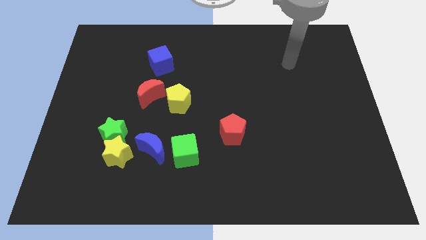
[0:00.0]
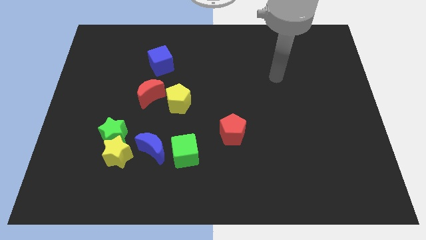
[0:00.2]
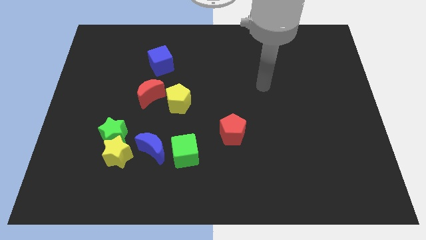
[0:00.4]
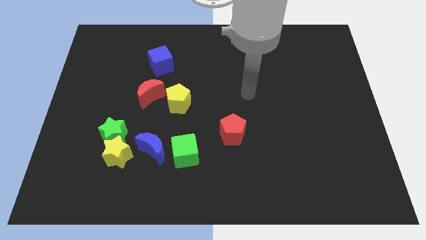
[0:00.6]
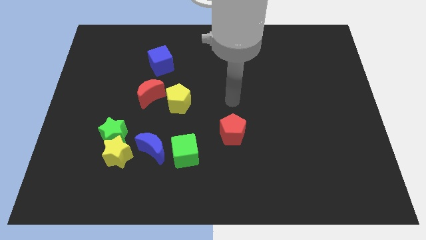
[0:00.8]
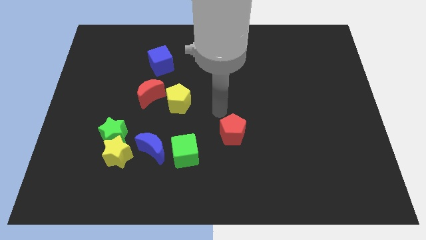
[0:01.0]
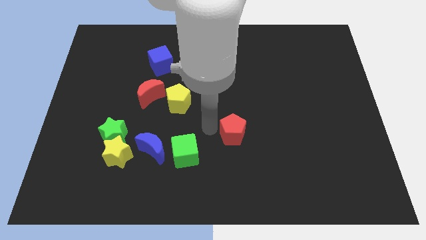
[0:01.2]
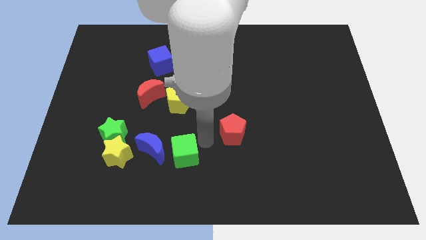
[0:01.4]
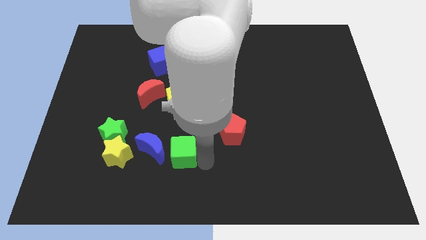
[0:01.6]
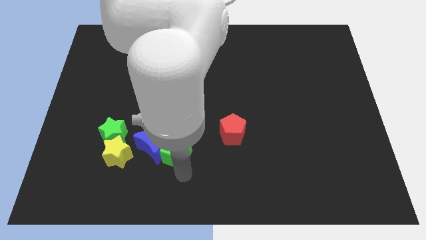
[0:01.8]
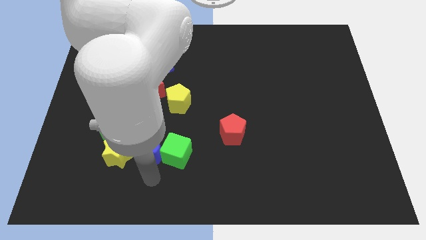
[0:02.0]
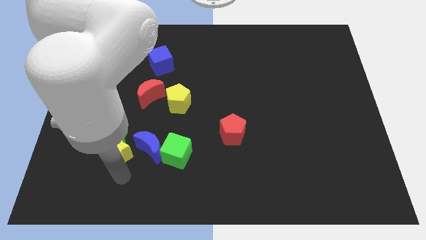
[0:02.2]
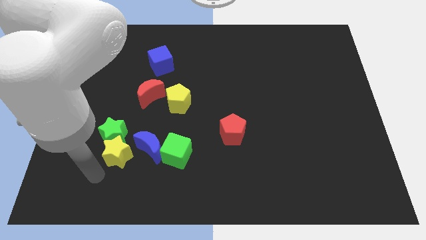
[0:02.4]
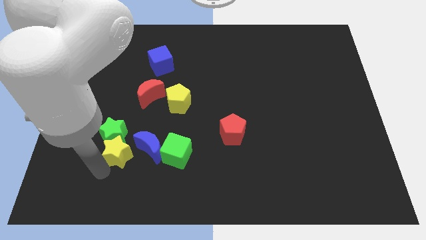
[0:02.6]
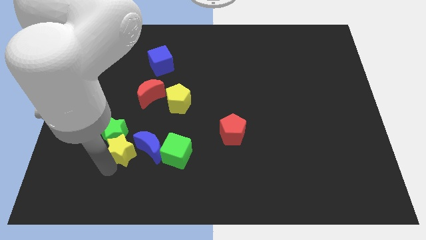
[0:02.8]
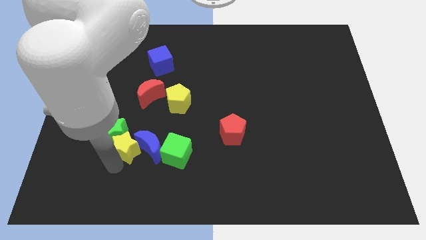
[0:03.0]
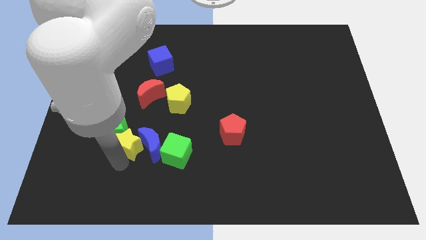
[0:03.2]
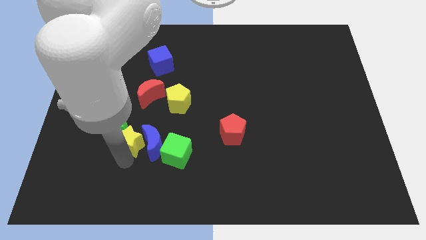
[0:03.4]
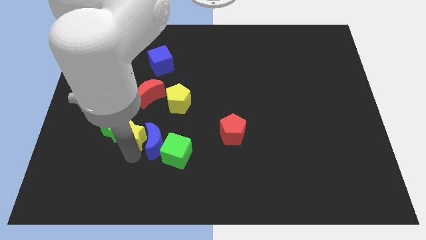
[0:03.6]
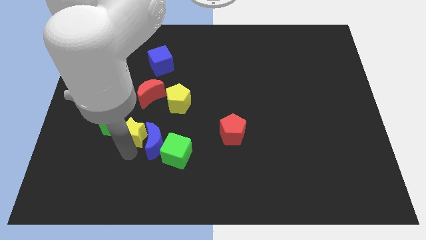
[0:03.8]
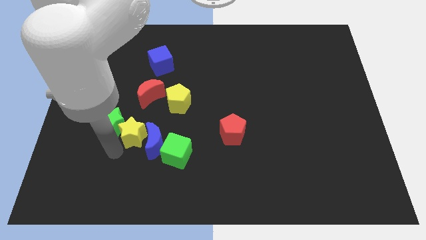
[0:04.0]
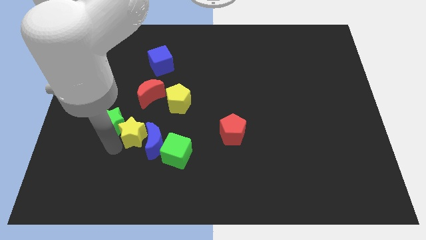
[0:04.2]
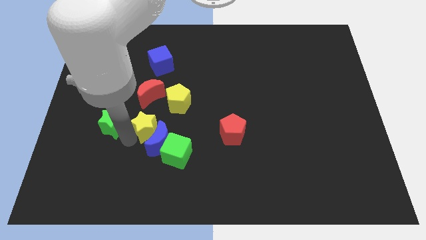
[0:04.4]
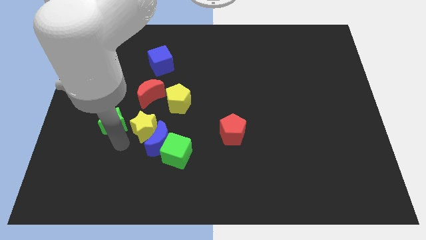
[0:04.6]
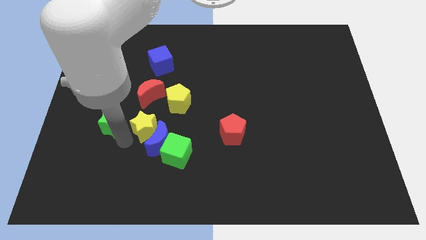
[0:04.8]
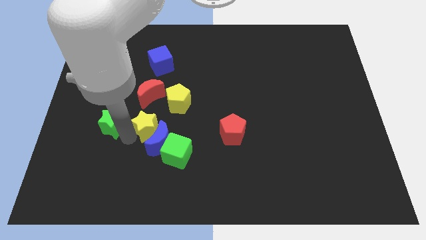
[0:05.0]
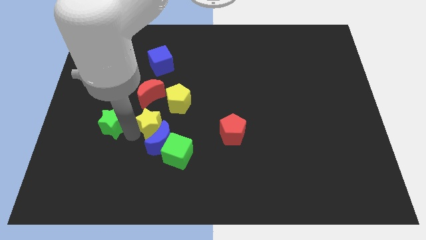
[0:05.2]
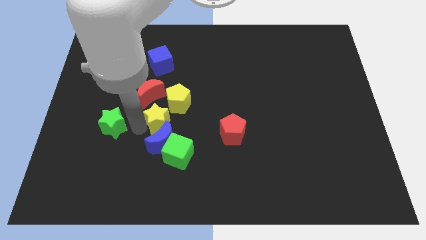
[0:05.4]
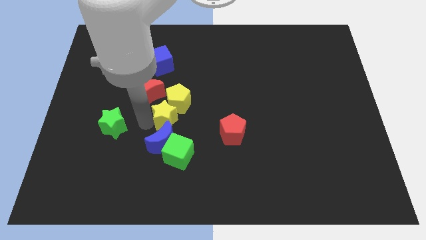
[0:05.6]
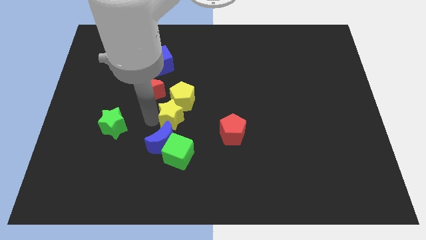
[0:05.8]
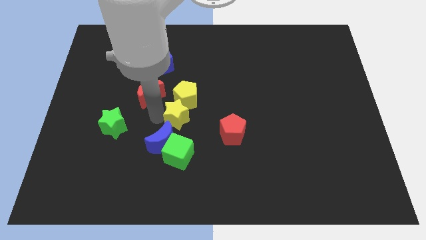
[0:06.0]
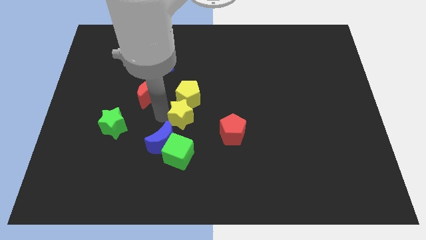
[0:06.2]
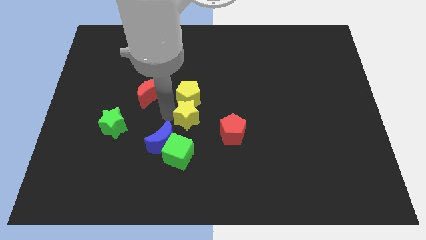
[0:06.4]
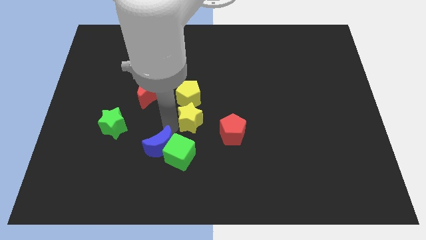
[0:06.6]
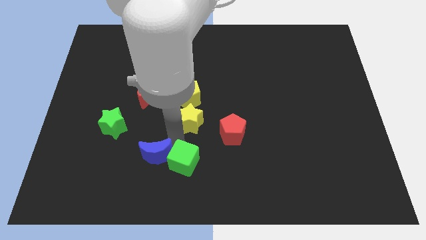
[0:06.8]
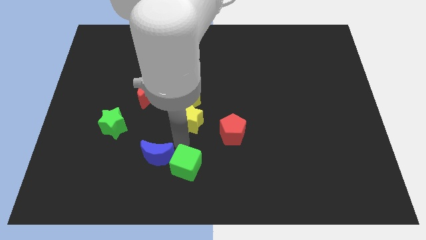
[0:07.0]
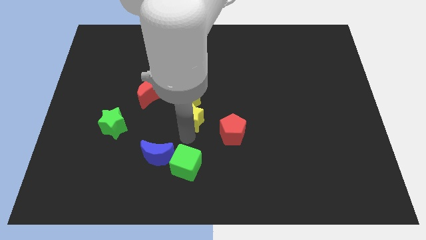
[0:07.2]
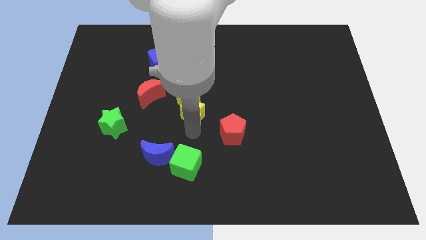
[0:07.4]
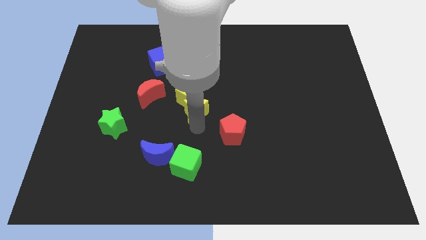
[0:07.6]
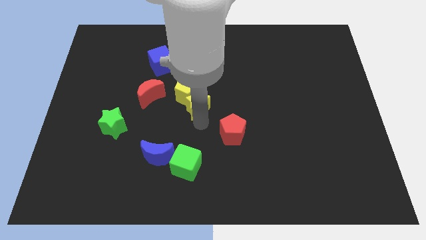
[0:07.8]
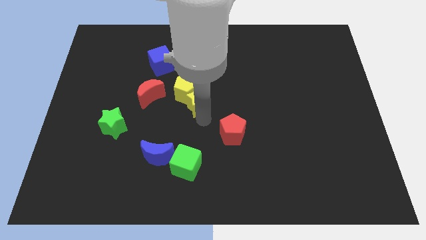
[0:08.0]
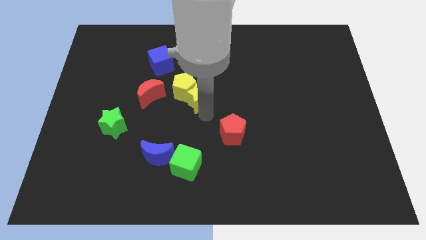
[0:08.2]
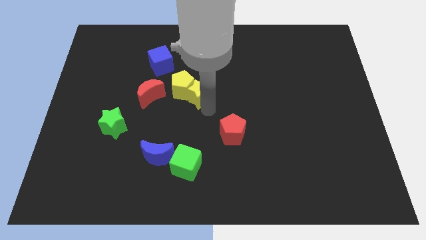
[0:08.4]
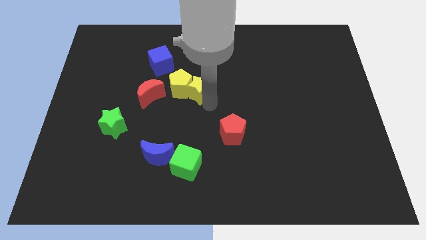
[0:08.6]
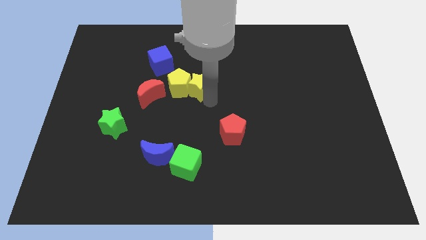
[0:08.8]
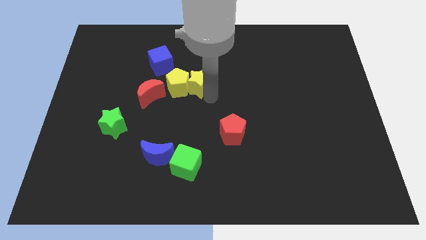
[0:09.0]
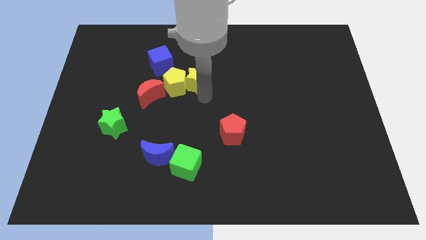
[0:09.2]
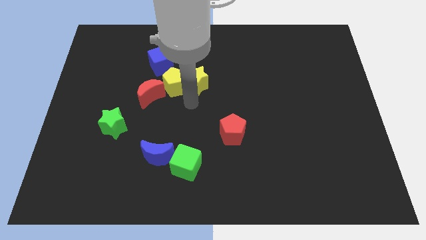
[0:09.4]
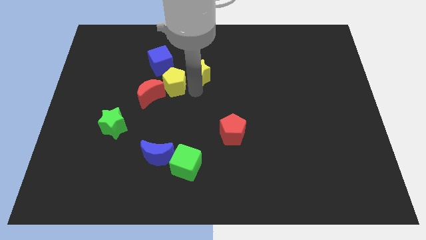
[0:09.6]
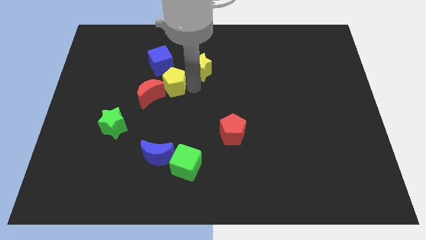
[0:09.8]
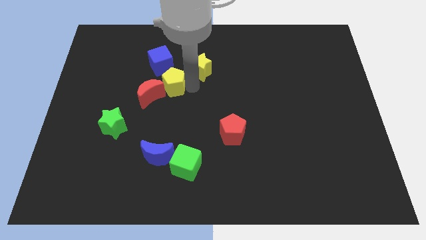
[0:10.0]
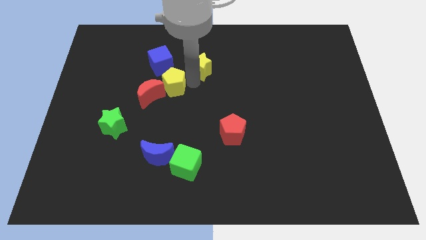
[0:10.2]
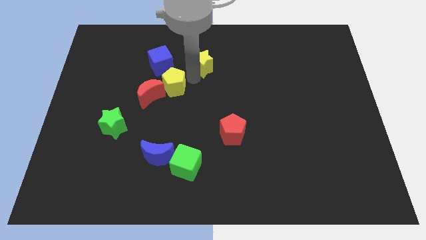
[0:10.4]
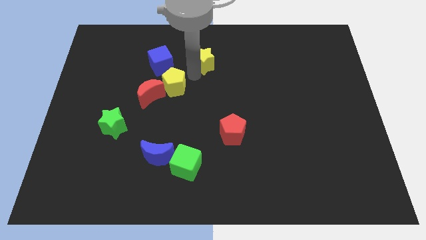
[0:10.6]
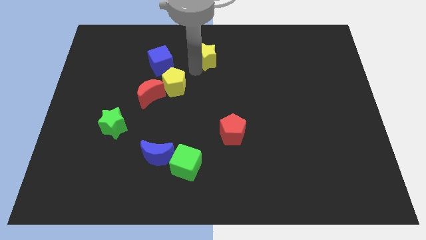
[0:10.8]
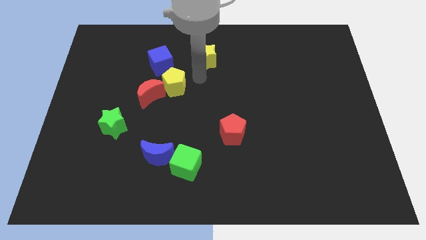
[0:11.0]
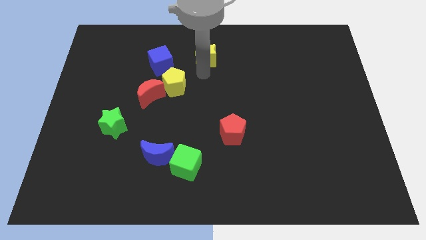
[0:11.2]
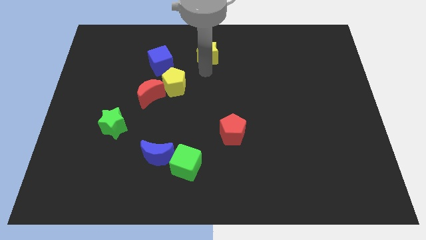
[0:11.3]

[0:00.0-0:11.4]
move the yellow star to the top

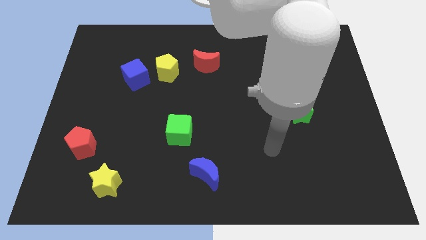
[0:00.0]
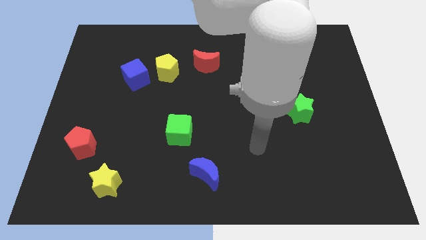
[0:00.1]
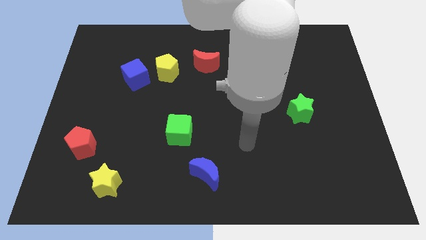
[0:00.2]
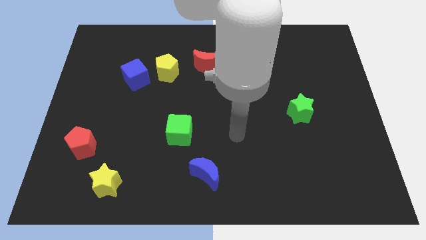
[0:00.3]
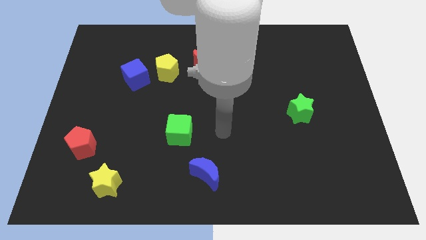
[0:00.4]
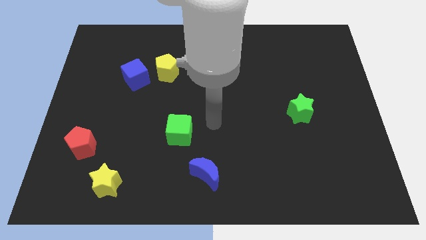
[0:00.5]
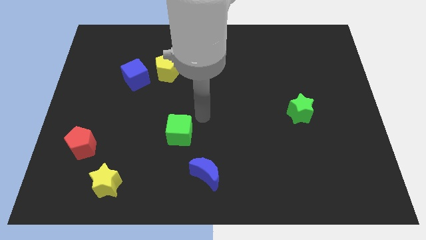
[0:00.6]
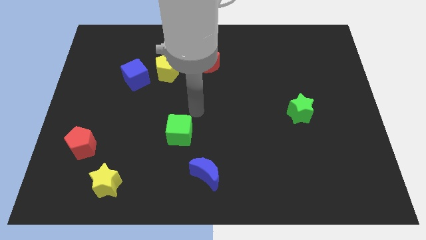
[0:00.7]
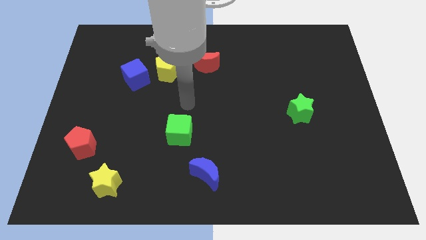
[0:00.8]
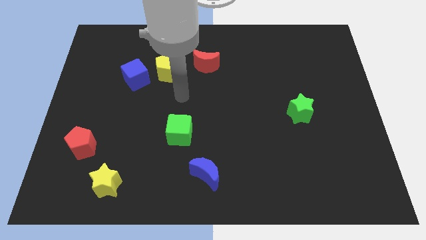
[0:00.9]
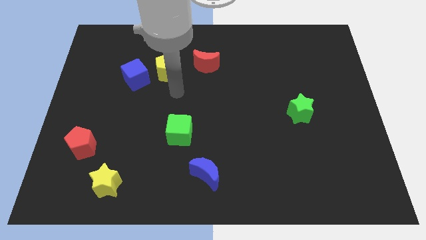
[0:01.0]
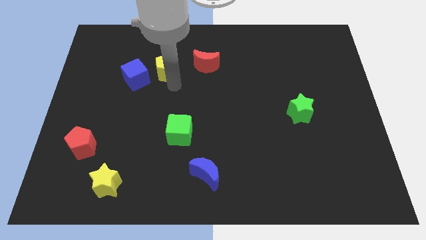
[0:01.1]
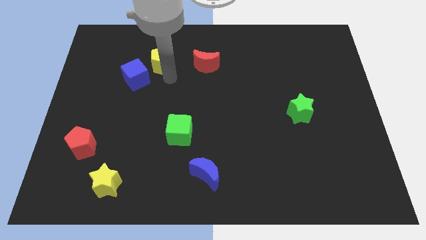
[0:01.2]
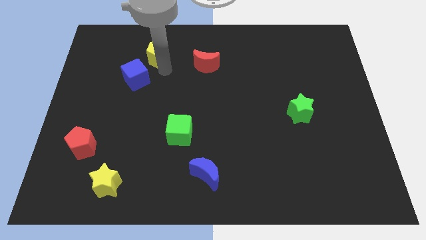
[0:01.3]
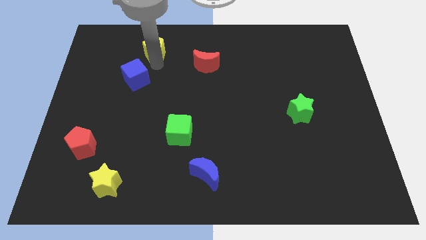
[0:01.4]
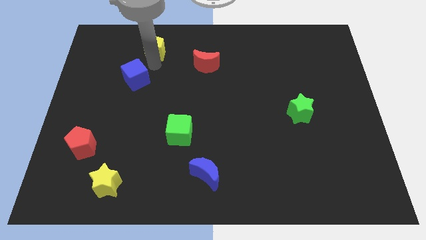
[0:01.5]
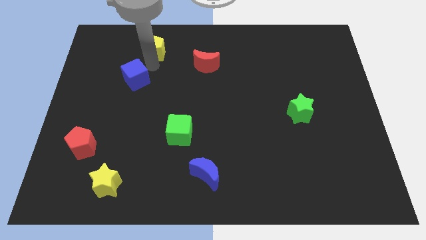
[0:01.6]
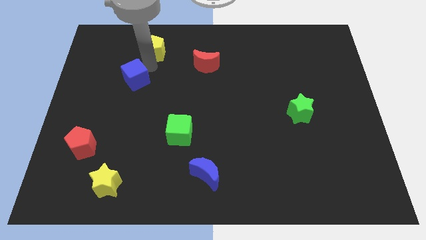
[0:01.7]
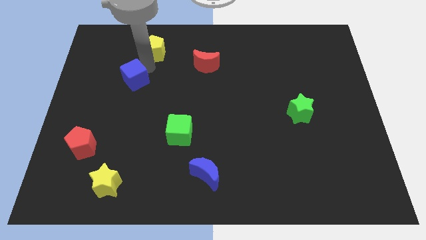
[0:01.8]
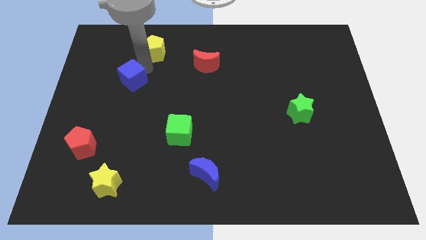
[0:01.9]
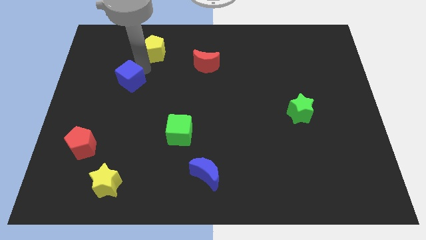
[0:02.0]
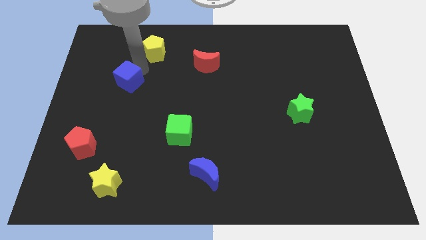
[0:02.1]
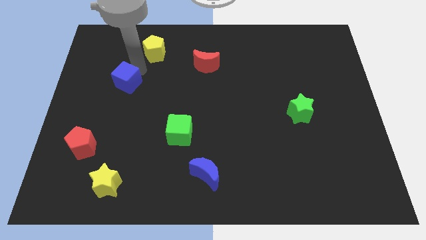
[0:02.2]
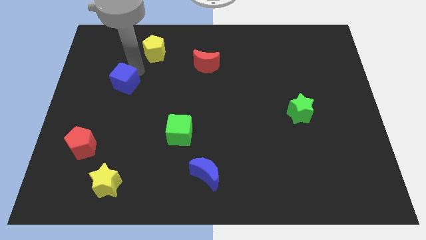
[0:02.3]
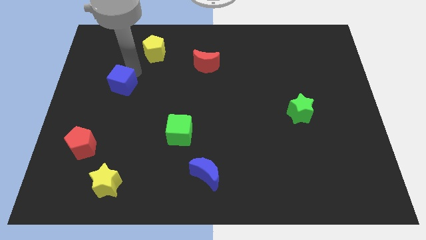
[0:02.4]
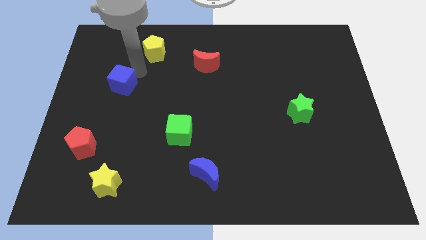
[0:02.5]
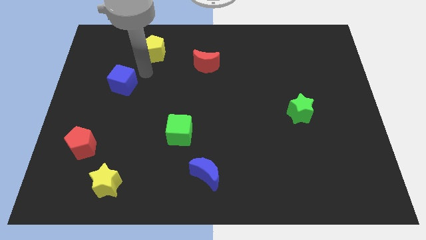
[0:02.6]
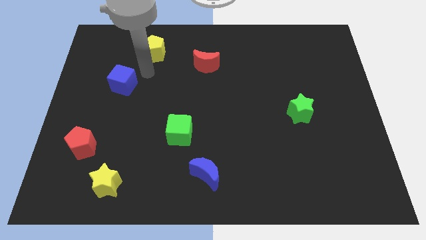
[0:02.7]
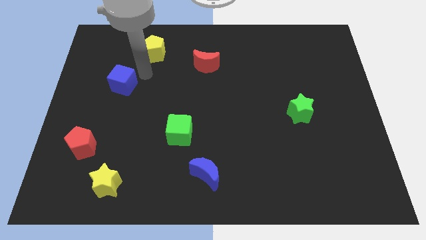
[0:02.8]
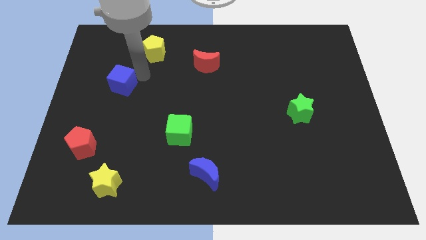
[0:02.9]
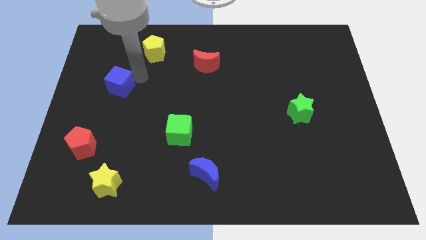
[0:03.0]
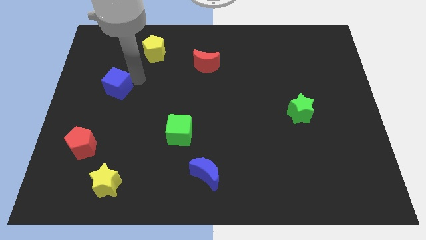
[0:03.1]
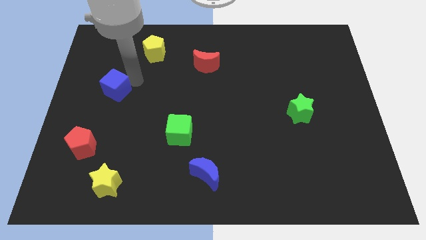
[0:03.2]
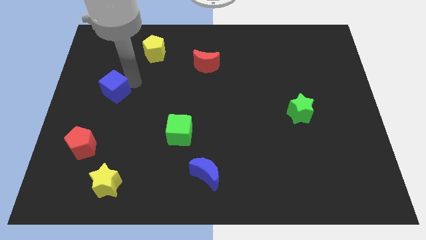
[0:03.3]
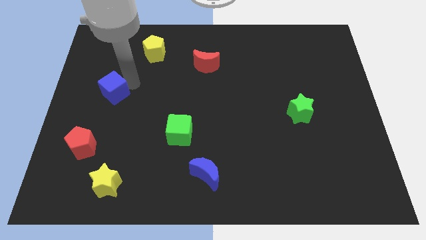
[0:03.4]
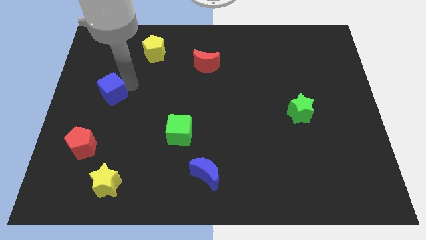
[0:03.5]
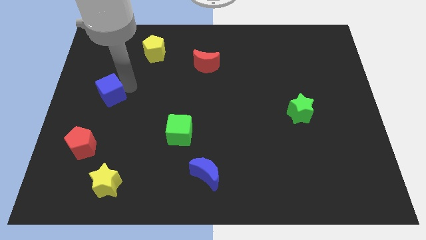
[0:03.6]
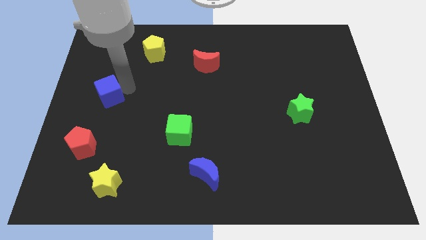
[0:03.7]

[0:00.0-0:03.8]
move the blue cube to the center left
